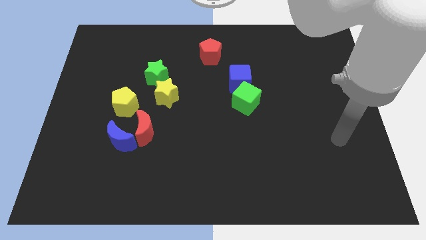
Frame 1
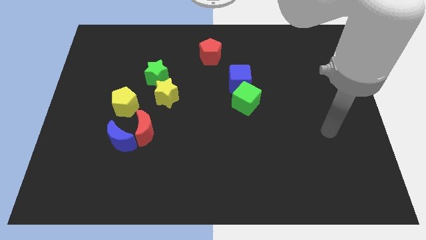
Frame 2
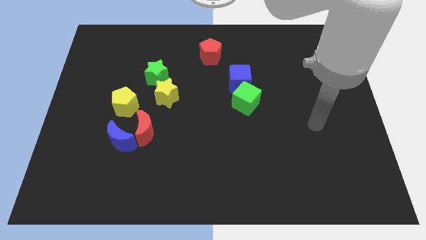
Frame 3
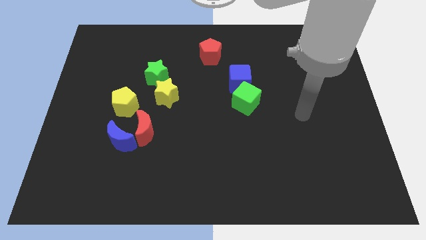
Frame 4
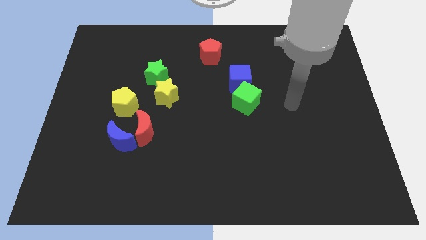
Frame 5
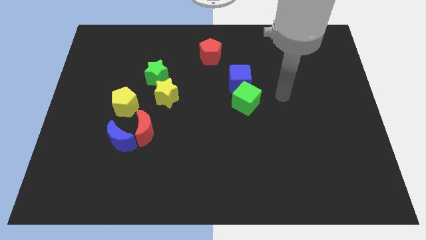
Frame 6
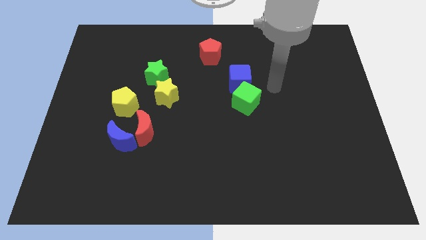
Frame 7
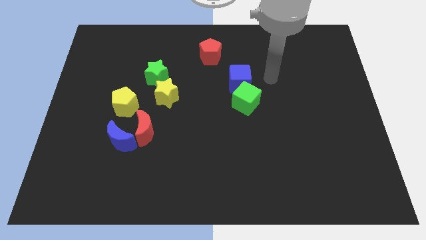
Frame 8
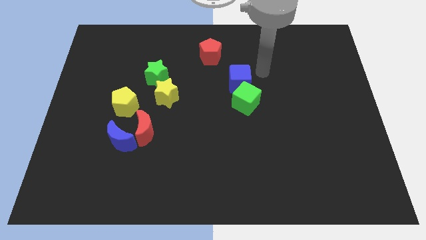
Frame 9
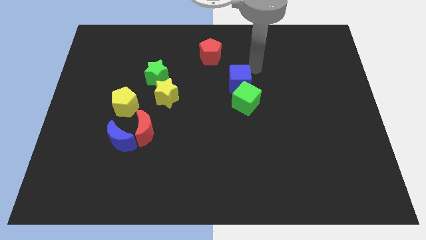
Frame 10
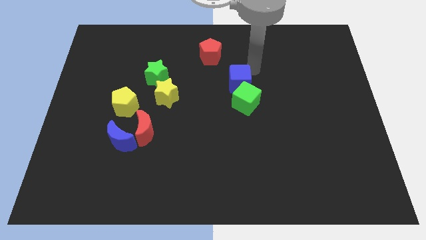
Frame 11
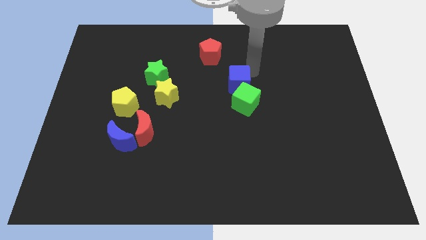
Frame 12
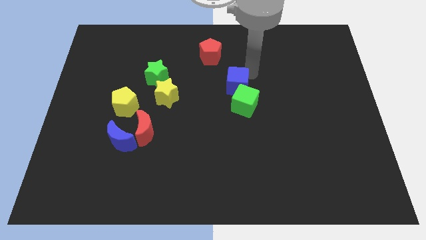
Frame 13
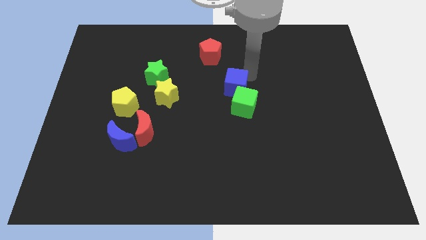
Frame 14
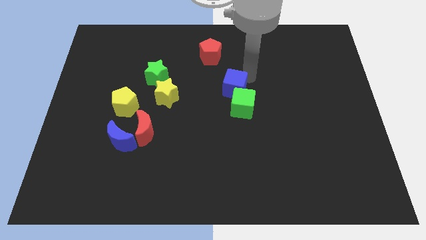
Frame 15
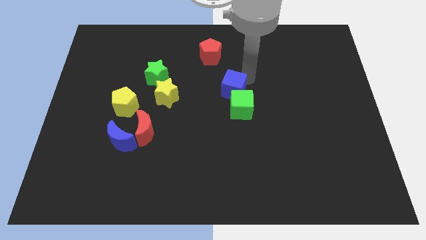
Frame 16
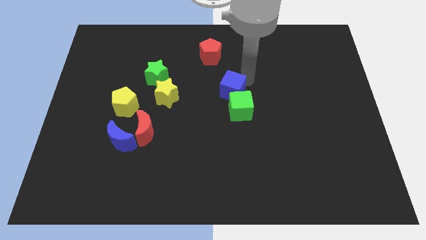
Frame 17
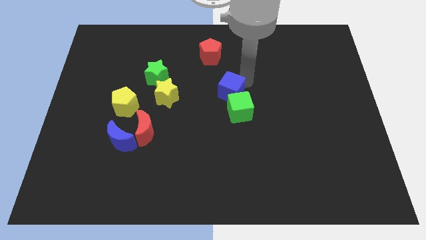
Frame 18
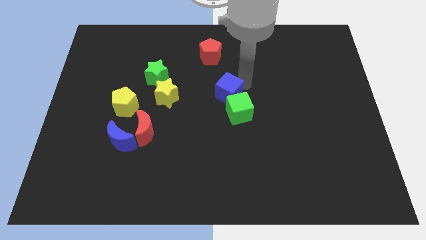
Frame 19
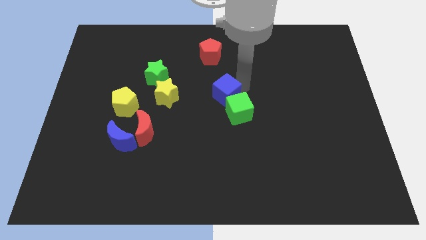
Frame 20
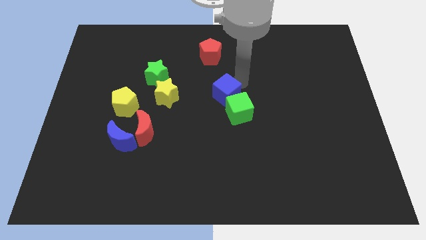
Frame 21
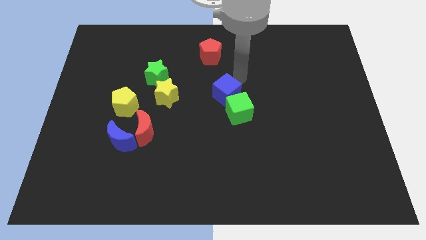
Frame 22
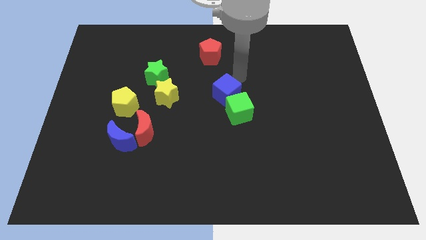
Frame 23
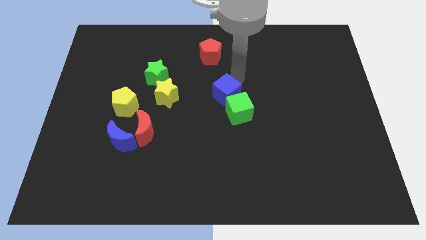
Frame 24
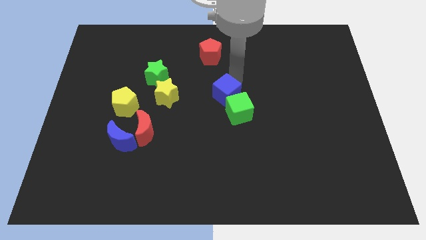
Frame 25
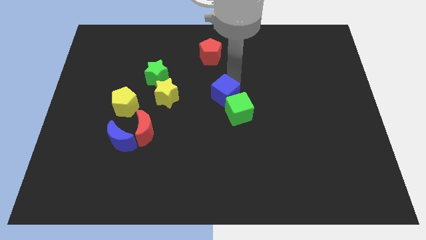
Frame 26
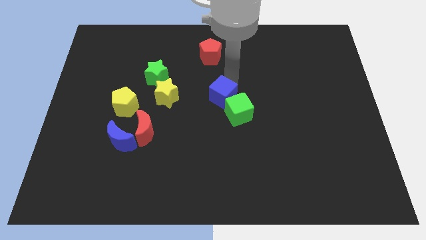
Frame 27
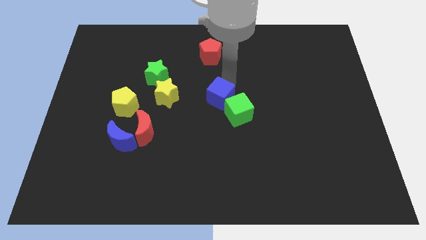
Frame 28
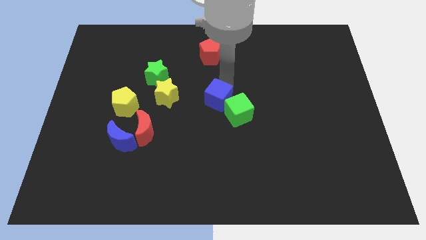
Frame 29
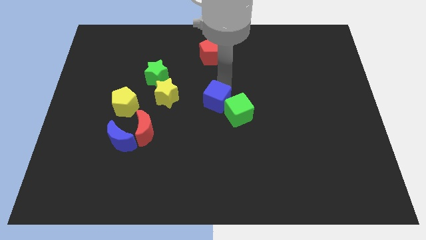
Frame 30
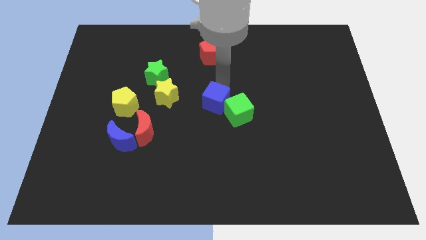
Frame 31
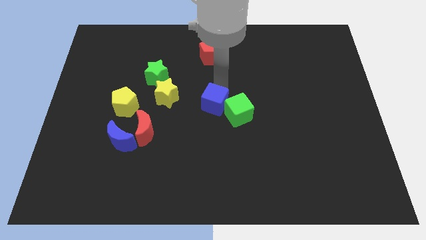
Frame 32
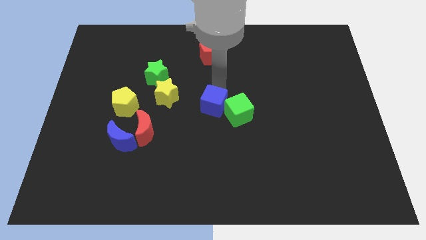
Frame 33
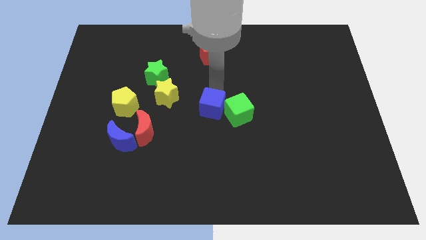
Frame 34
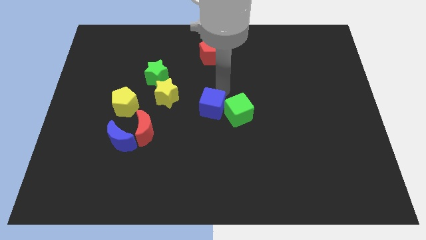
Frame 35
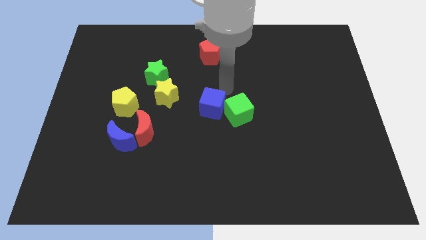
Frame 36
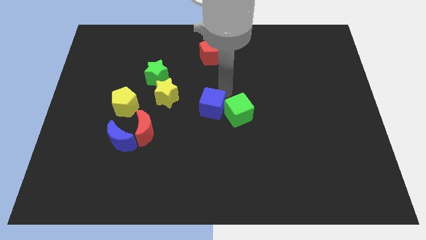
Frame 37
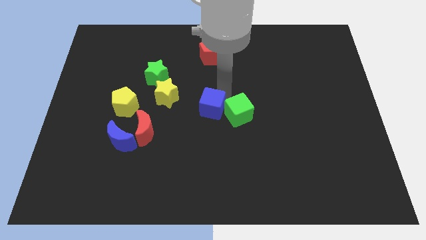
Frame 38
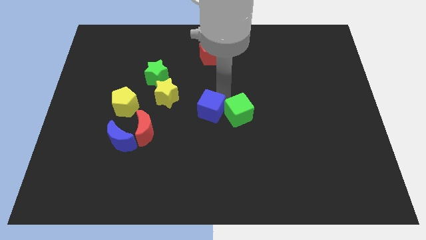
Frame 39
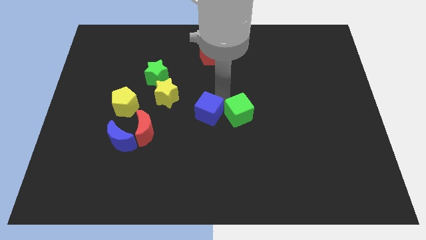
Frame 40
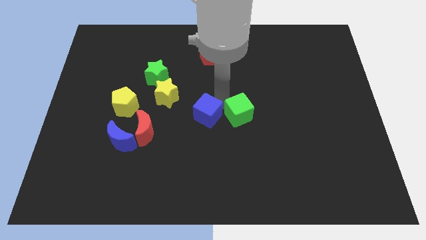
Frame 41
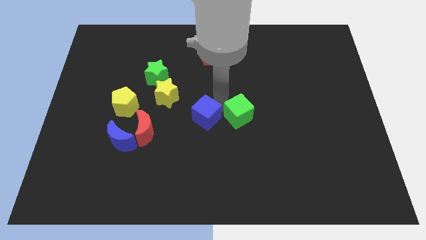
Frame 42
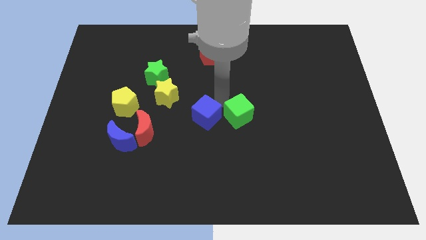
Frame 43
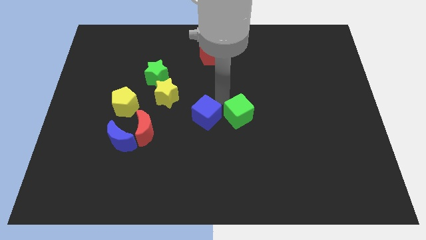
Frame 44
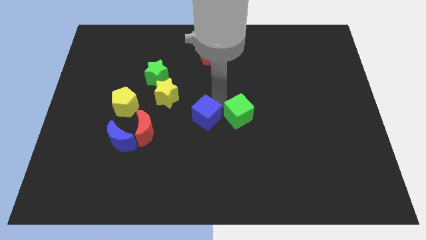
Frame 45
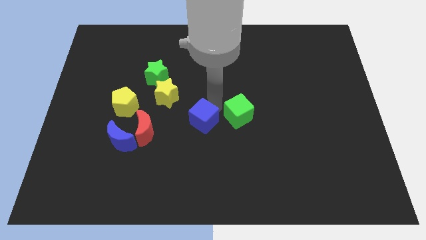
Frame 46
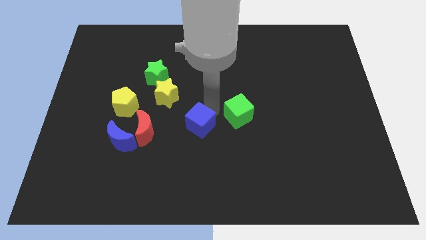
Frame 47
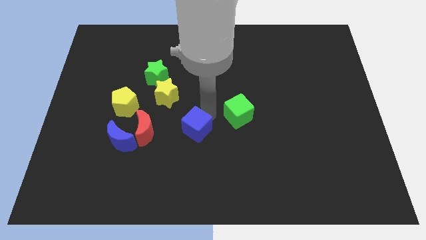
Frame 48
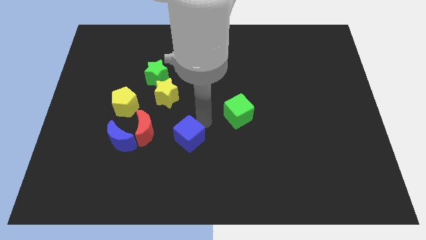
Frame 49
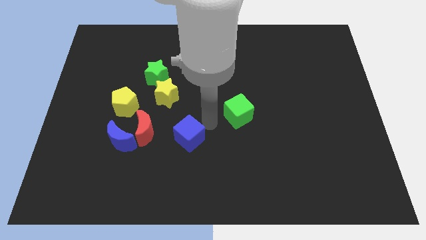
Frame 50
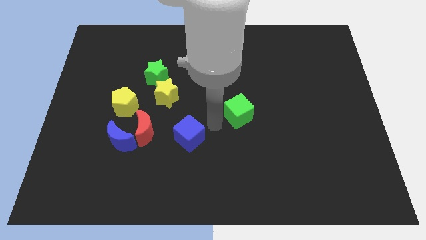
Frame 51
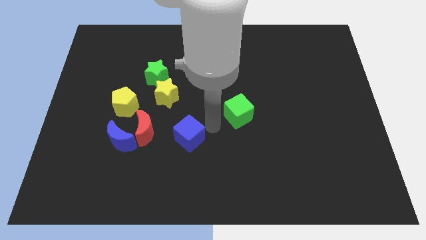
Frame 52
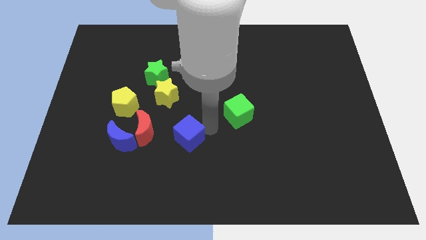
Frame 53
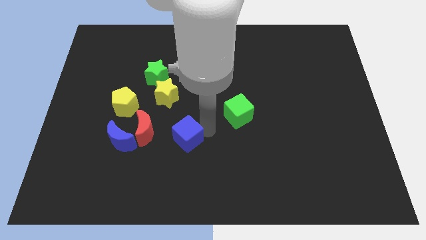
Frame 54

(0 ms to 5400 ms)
push the blue cube diagonally down and to the left

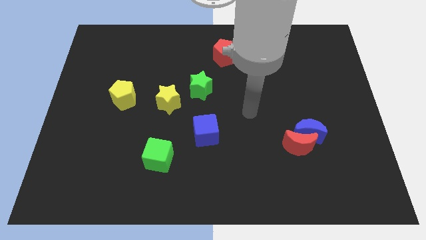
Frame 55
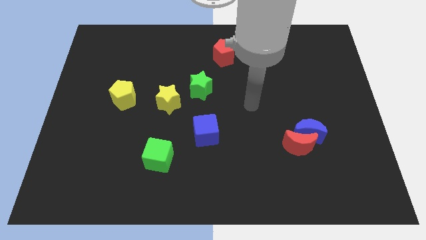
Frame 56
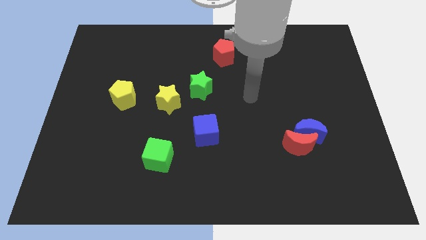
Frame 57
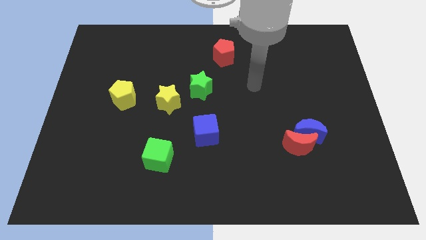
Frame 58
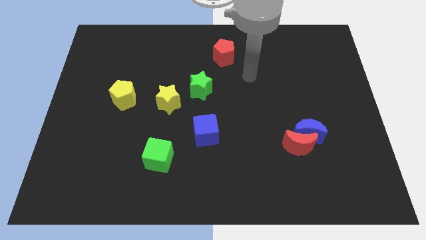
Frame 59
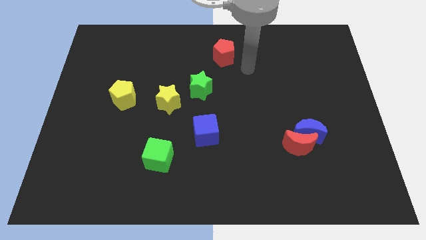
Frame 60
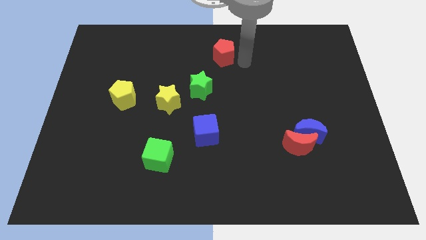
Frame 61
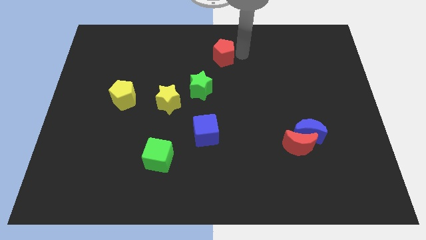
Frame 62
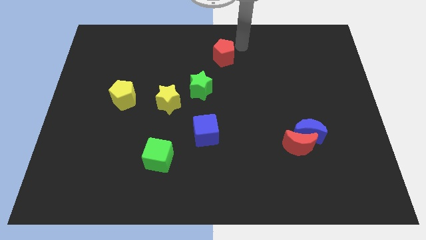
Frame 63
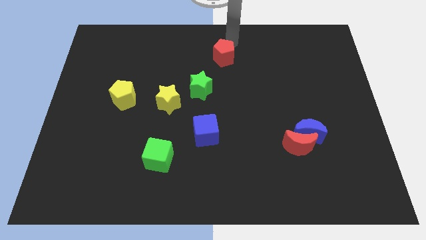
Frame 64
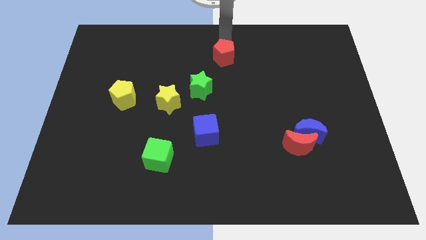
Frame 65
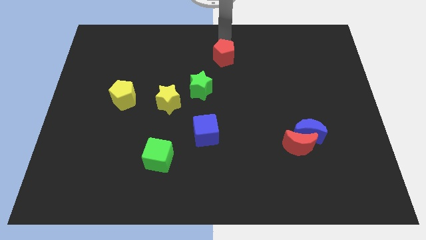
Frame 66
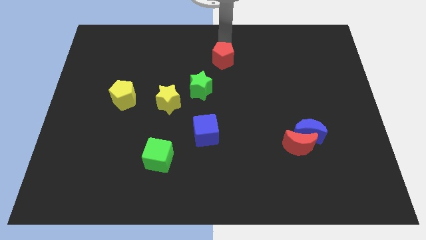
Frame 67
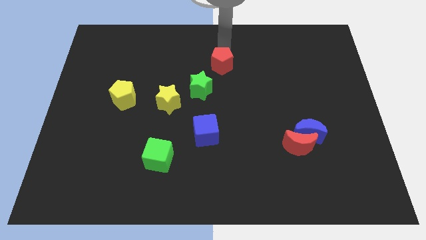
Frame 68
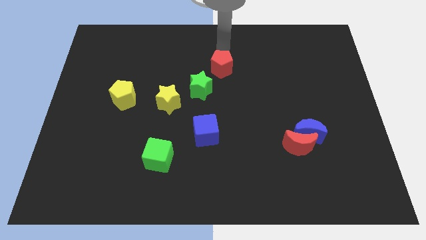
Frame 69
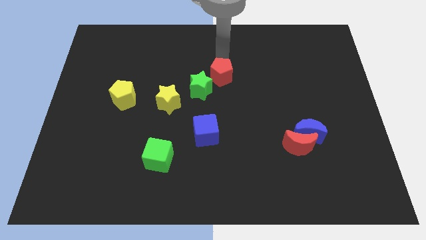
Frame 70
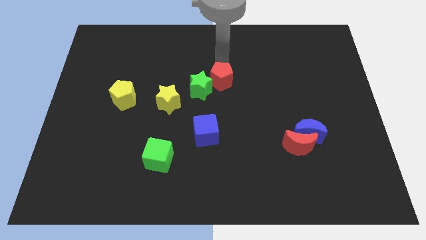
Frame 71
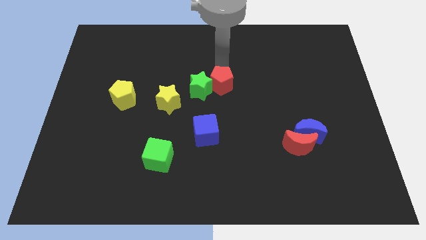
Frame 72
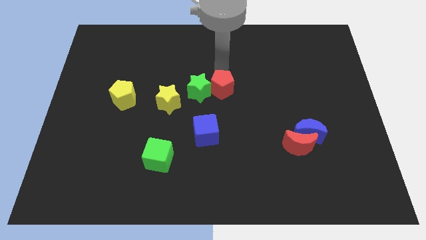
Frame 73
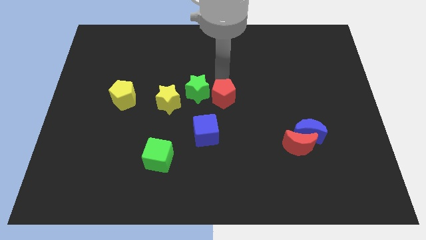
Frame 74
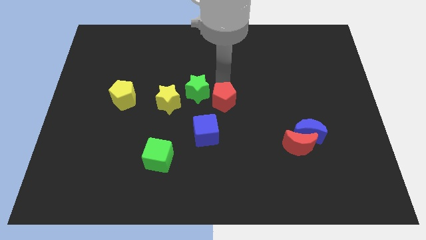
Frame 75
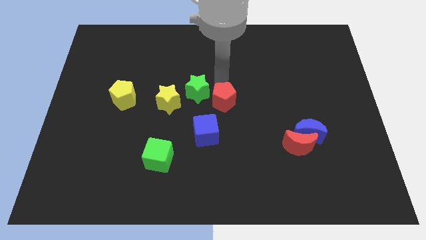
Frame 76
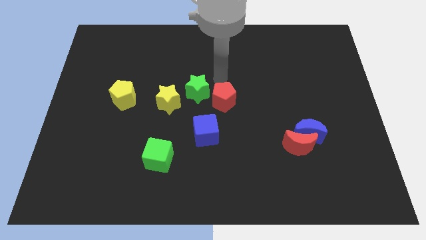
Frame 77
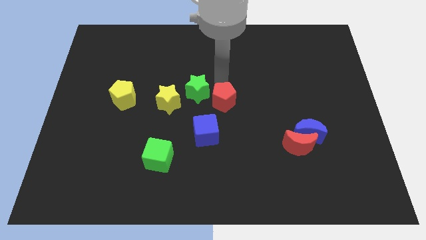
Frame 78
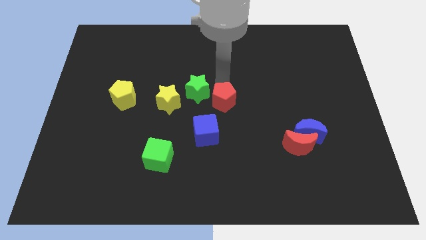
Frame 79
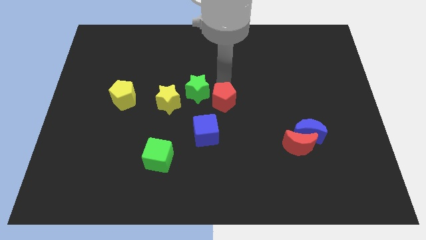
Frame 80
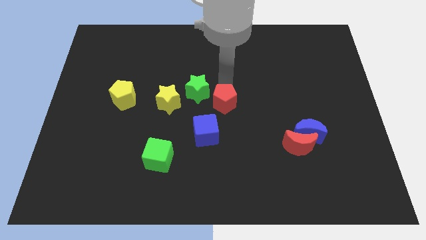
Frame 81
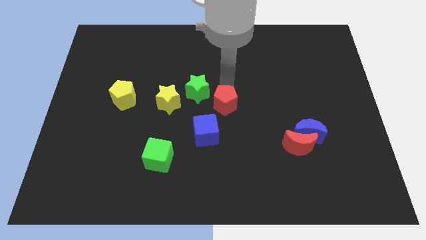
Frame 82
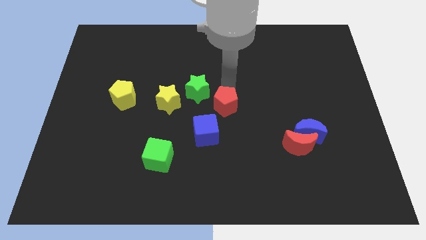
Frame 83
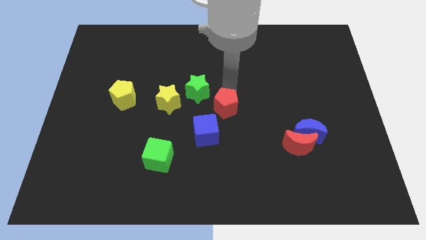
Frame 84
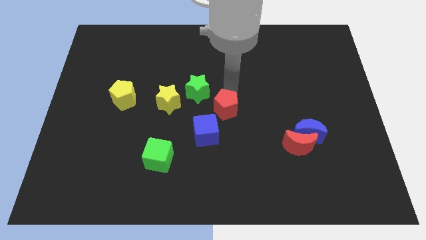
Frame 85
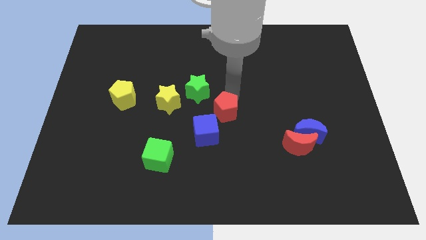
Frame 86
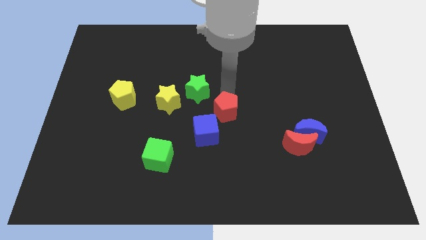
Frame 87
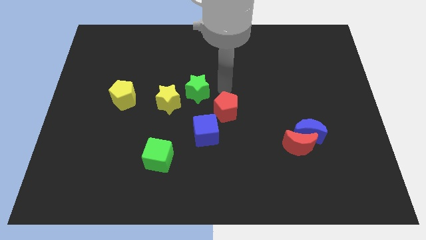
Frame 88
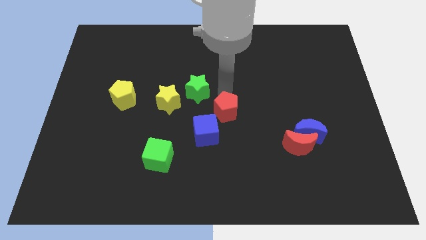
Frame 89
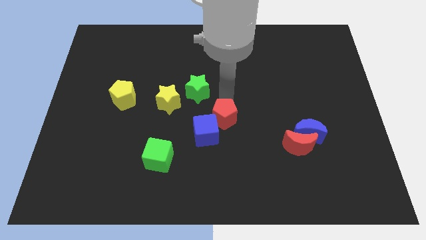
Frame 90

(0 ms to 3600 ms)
slide the red pentagon downwards
